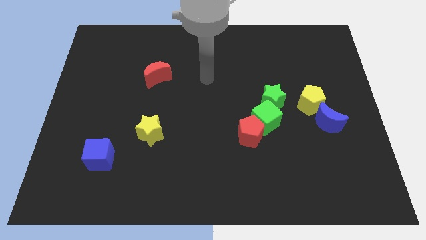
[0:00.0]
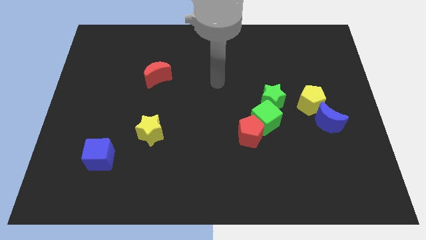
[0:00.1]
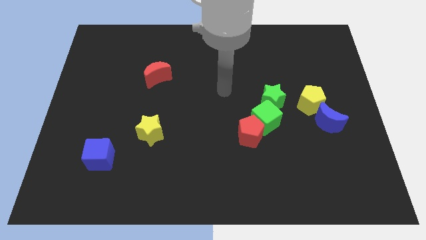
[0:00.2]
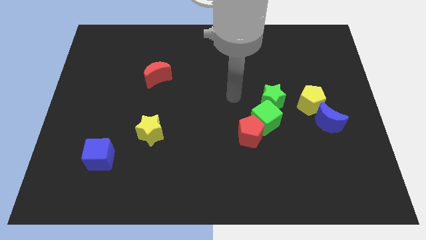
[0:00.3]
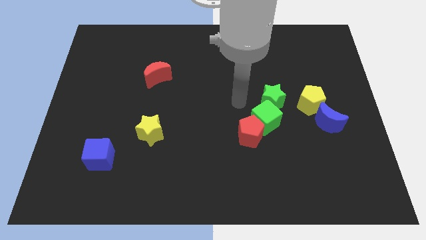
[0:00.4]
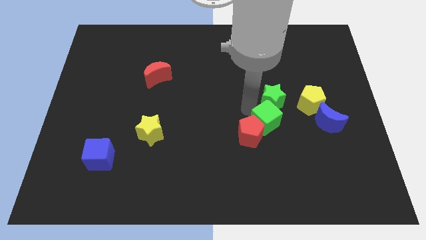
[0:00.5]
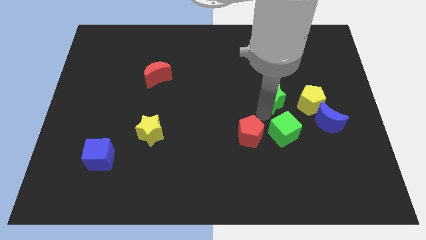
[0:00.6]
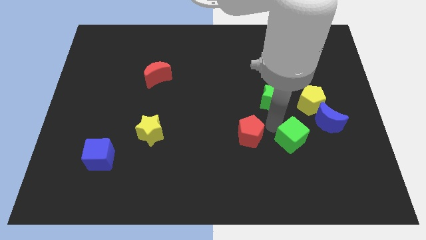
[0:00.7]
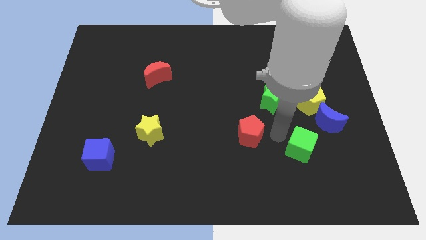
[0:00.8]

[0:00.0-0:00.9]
pull the red pentagon apart from the green cube

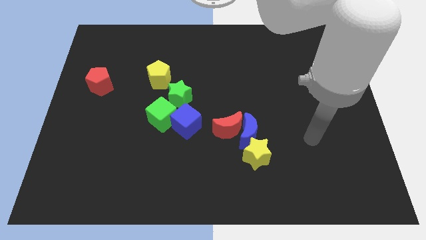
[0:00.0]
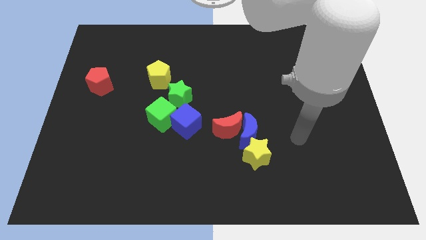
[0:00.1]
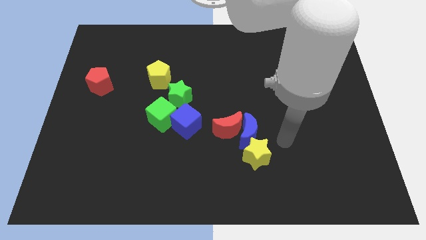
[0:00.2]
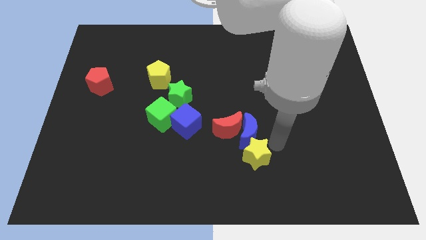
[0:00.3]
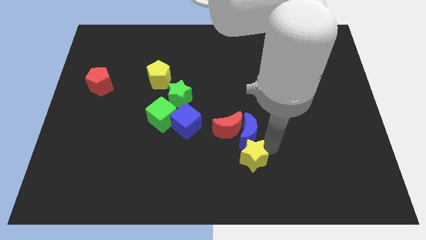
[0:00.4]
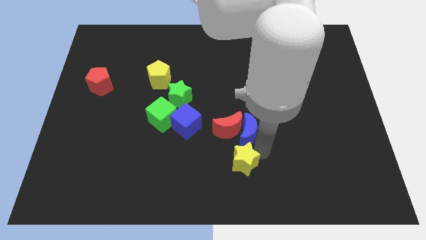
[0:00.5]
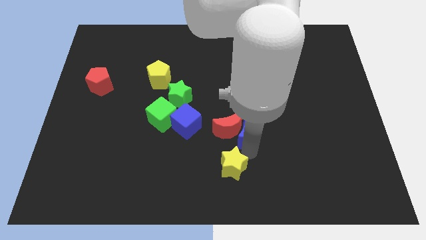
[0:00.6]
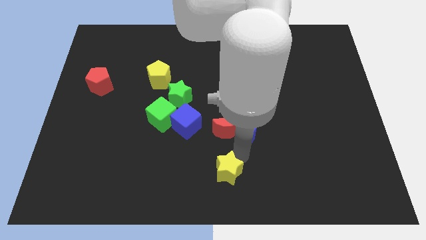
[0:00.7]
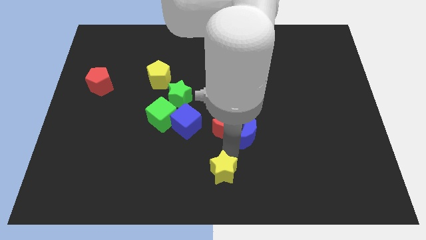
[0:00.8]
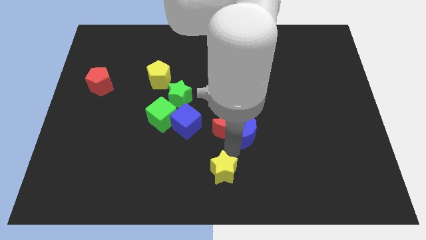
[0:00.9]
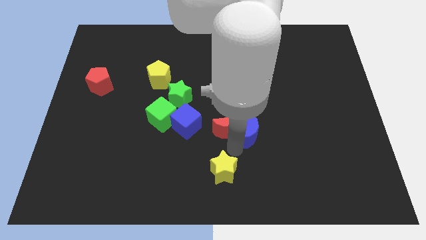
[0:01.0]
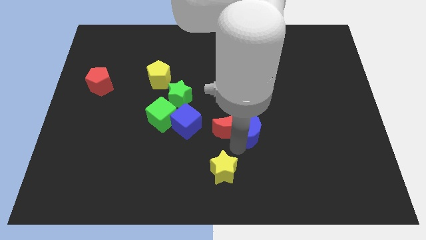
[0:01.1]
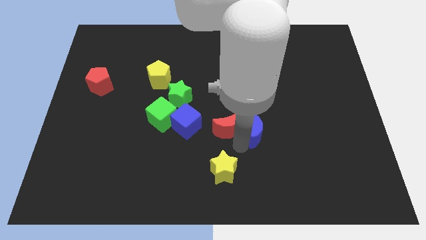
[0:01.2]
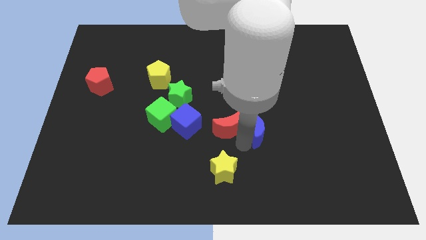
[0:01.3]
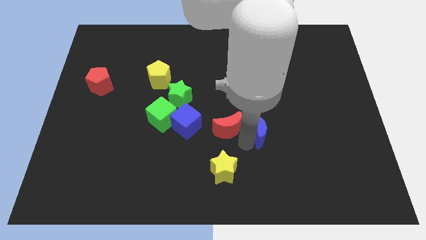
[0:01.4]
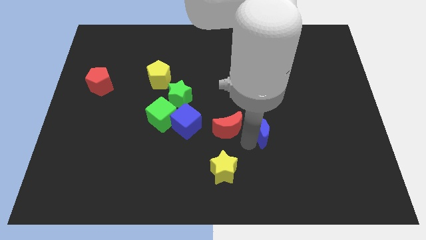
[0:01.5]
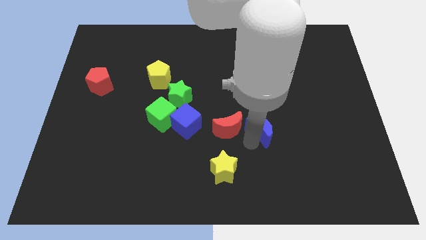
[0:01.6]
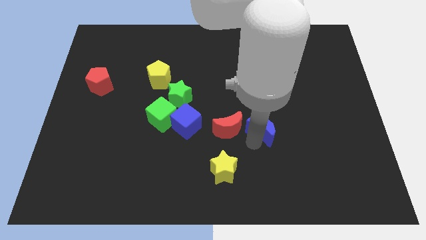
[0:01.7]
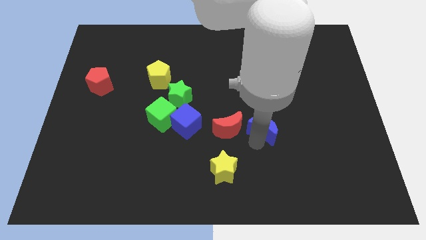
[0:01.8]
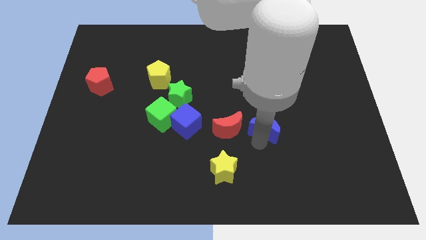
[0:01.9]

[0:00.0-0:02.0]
pull the blue moon apart from the red moon and yellow star

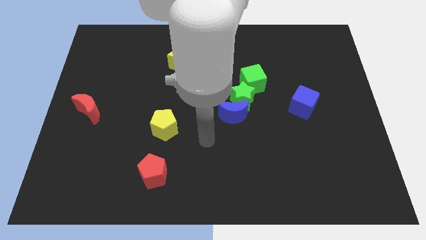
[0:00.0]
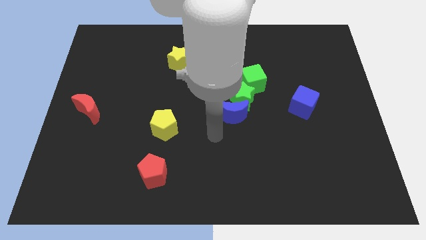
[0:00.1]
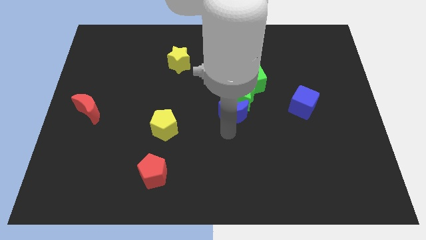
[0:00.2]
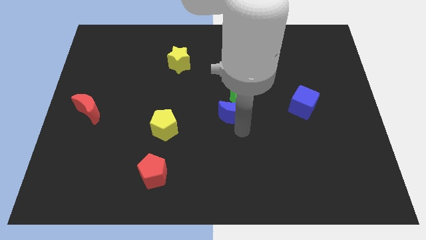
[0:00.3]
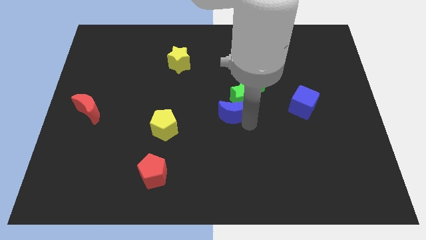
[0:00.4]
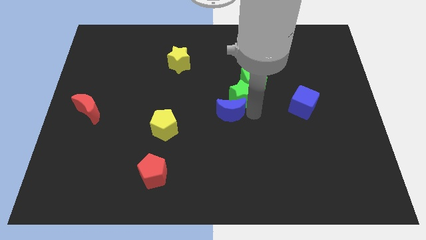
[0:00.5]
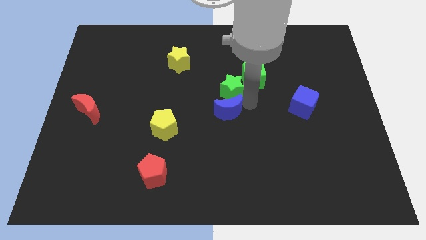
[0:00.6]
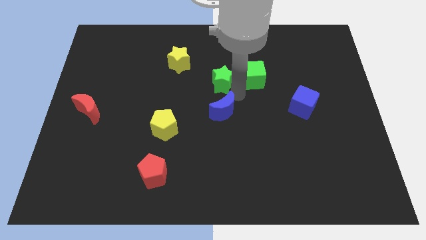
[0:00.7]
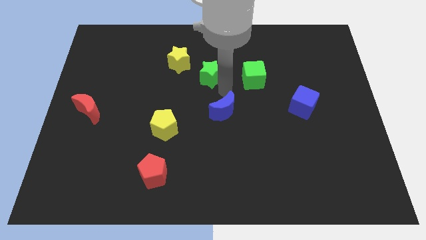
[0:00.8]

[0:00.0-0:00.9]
pull the blue moon apart from the green star

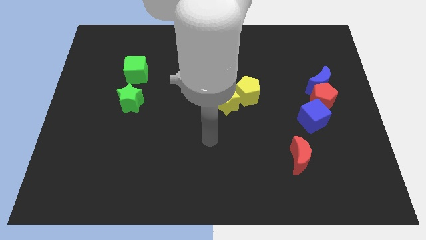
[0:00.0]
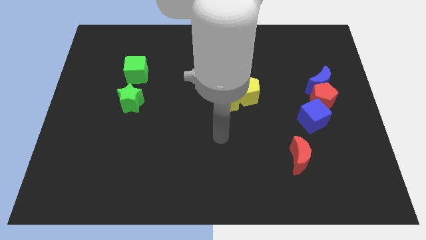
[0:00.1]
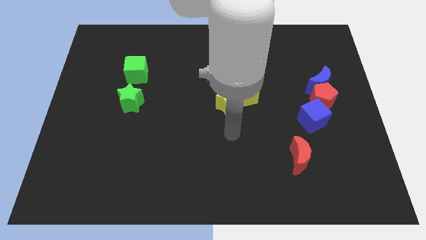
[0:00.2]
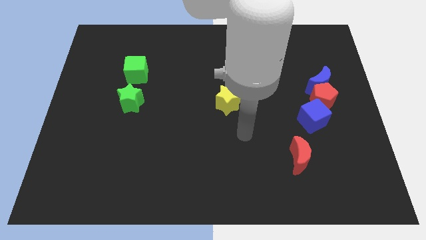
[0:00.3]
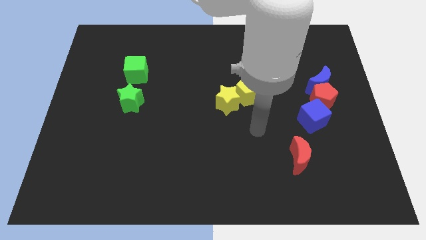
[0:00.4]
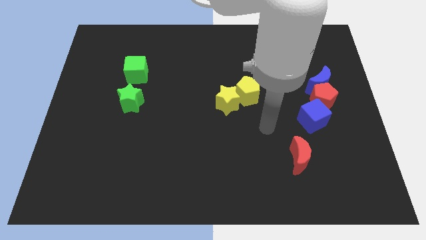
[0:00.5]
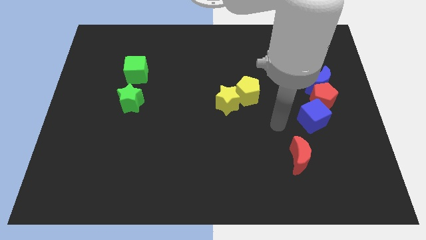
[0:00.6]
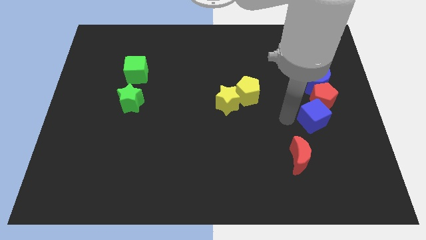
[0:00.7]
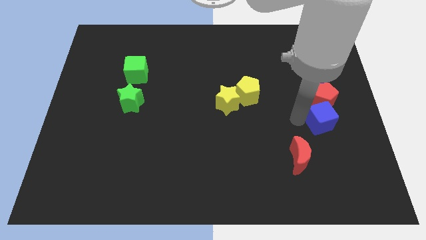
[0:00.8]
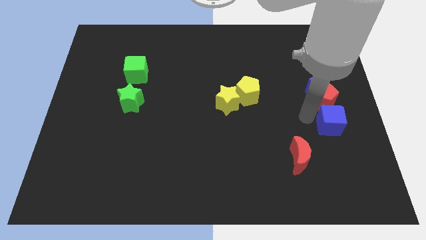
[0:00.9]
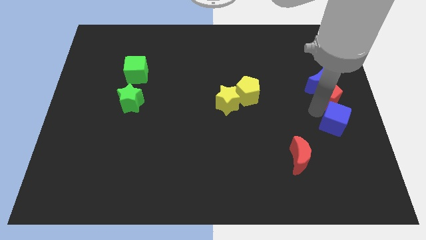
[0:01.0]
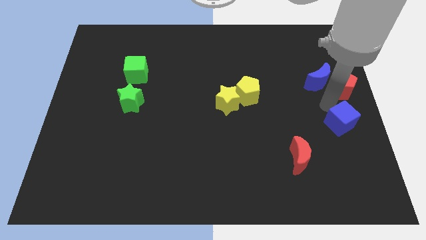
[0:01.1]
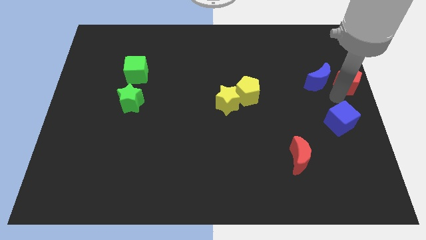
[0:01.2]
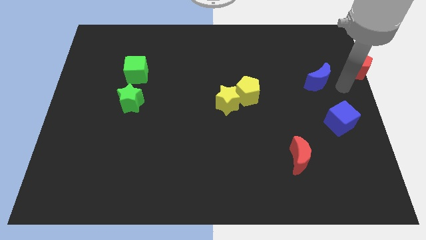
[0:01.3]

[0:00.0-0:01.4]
pull the blue moon apart from the red pentagon

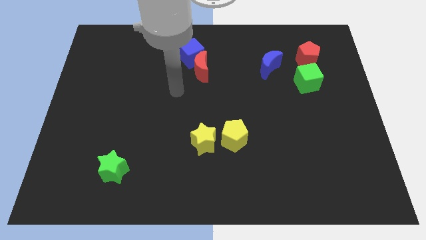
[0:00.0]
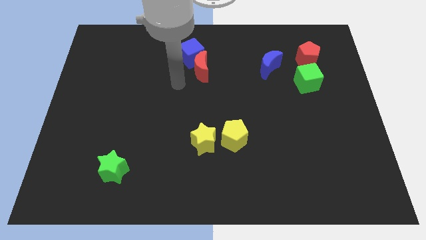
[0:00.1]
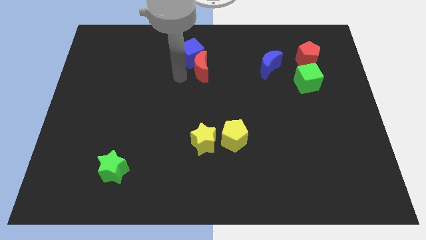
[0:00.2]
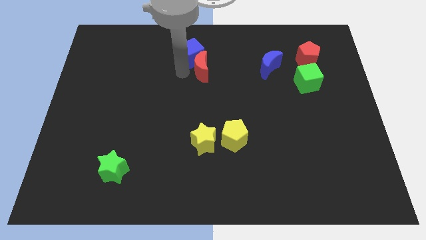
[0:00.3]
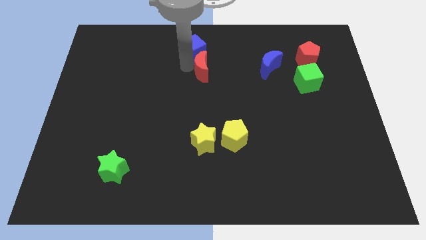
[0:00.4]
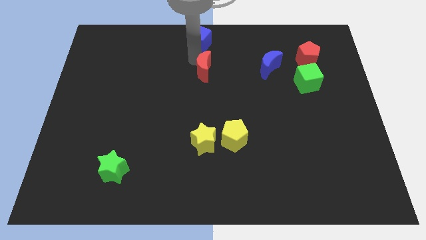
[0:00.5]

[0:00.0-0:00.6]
move the red moon away from the blue cube

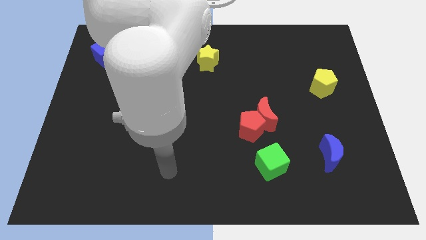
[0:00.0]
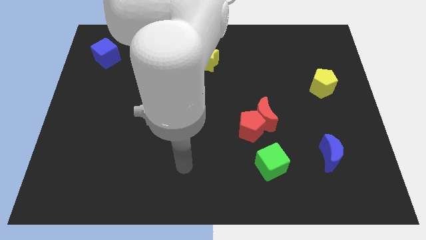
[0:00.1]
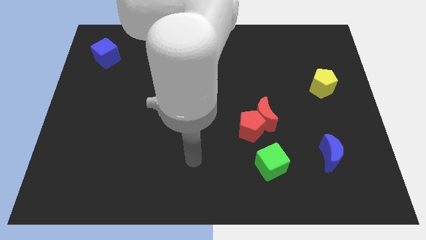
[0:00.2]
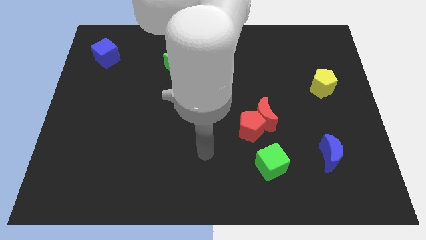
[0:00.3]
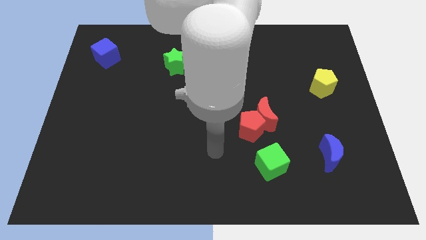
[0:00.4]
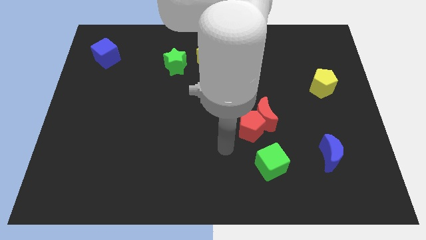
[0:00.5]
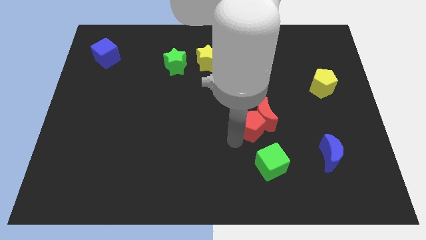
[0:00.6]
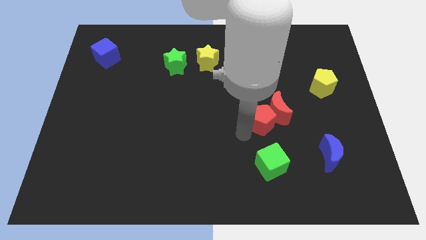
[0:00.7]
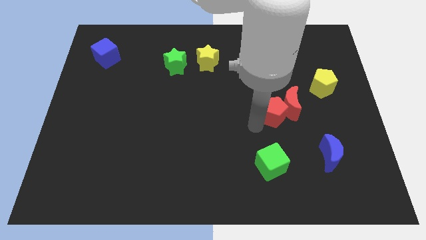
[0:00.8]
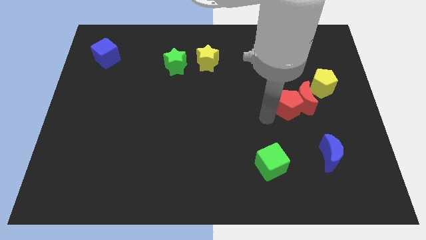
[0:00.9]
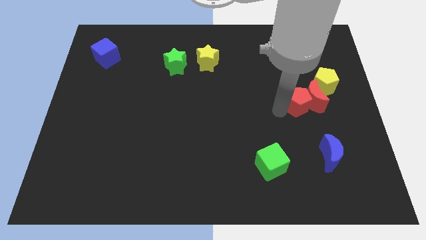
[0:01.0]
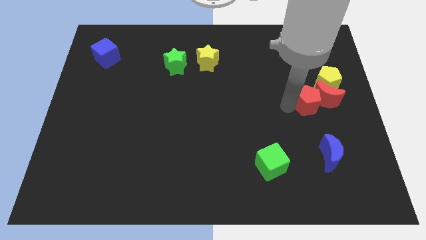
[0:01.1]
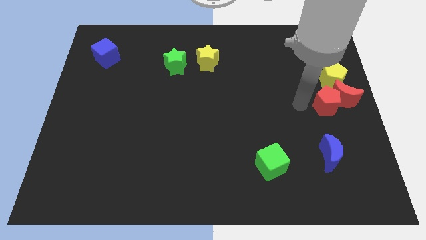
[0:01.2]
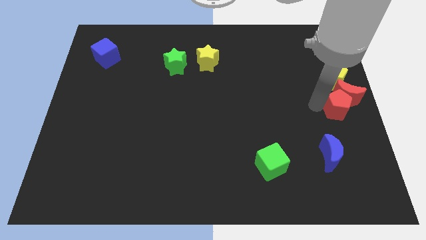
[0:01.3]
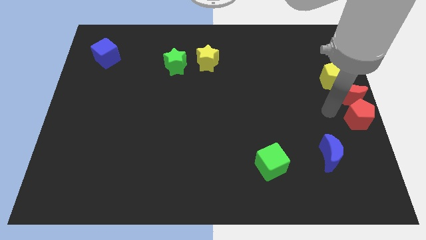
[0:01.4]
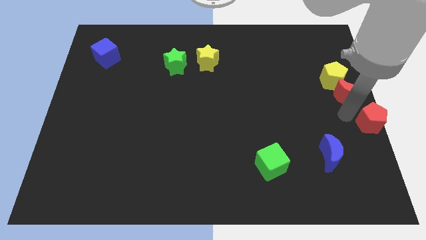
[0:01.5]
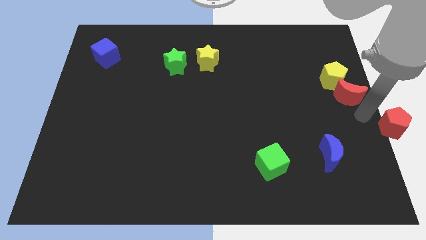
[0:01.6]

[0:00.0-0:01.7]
pull the red moon apart from the red pentagon

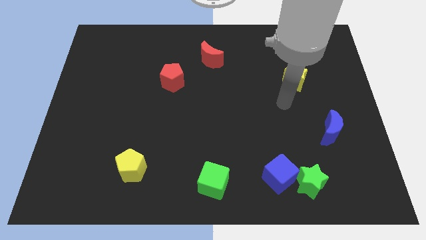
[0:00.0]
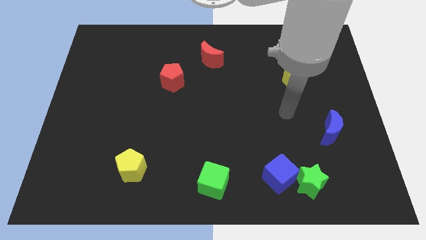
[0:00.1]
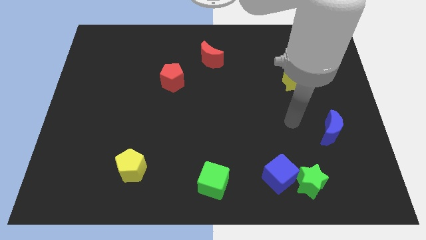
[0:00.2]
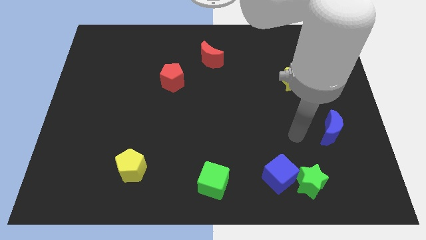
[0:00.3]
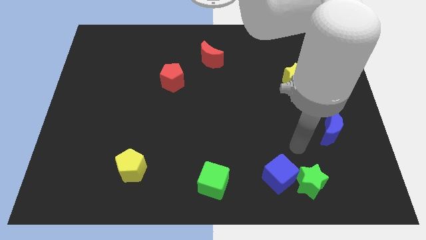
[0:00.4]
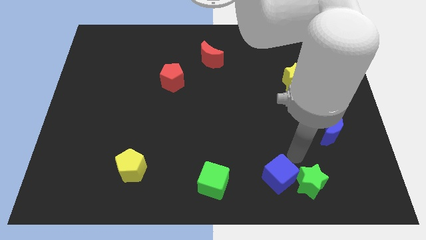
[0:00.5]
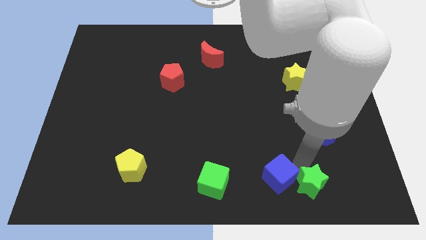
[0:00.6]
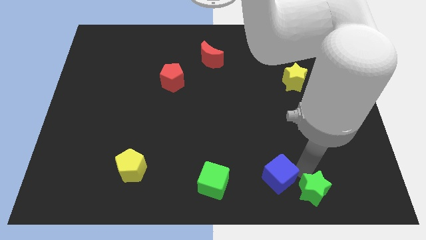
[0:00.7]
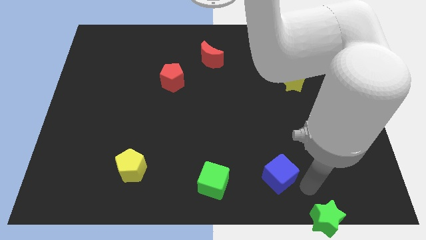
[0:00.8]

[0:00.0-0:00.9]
move the blue cube away from the green star

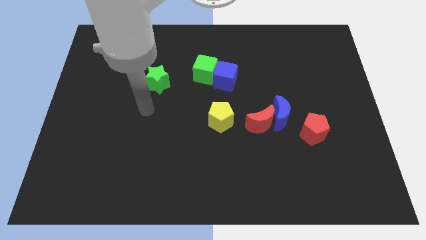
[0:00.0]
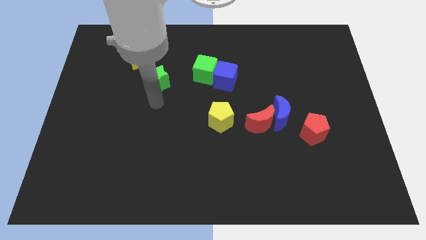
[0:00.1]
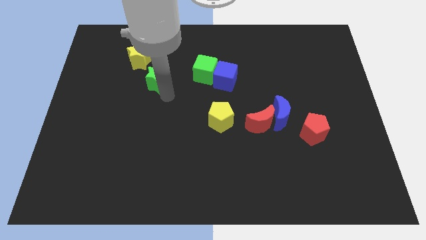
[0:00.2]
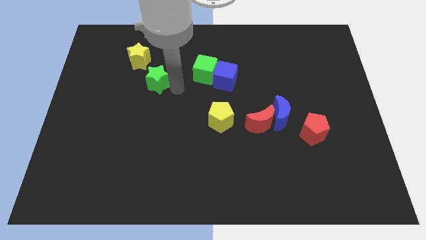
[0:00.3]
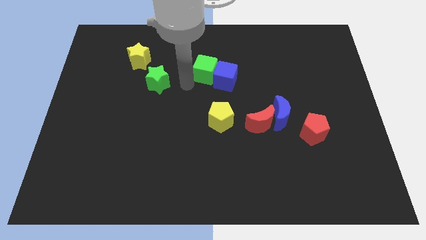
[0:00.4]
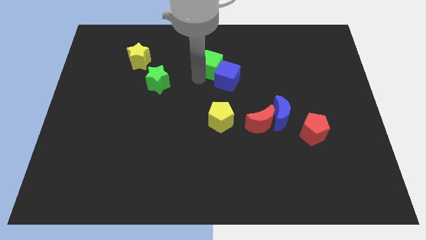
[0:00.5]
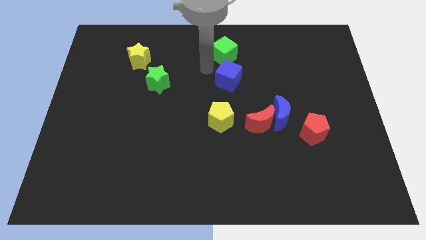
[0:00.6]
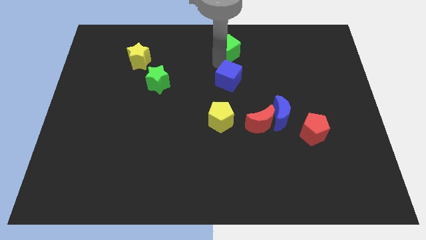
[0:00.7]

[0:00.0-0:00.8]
move the blue cube away from the green cube

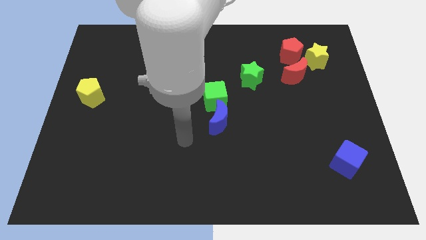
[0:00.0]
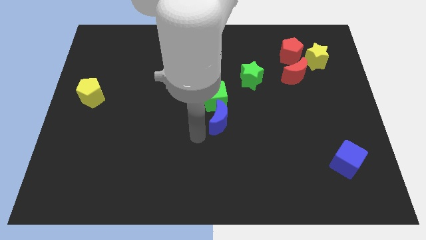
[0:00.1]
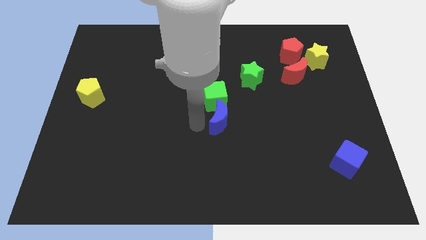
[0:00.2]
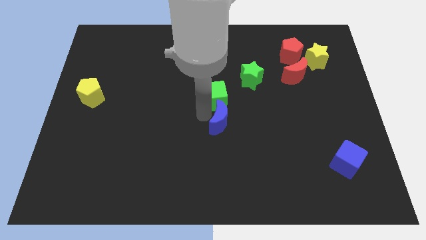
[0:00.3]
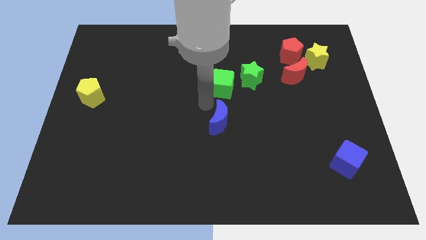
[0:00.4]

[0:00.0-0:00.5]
move the blue moon away from the green cube
